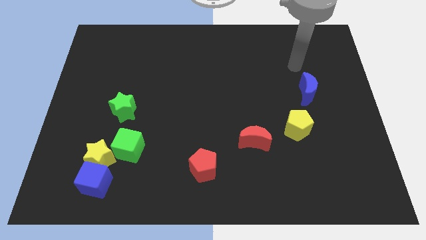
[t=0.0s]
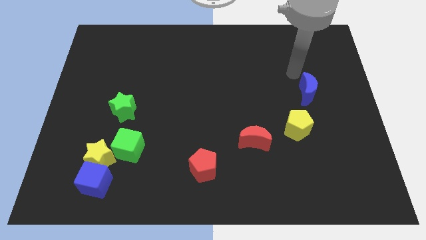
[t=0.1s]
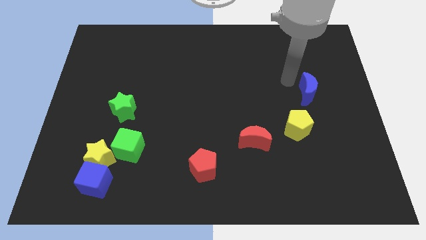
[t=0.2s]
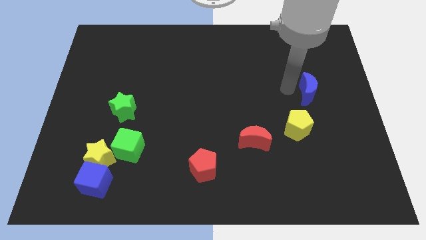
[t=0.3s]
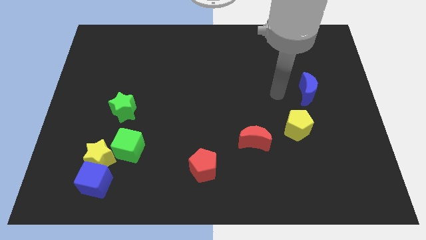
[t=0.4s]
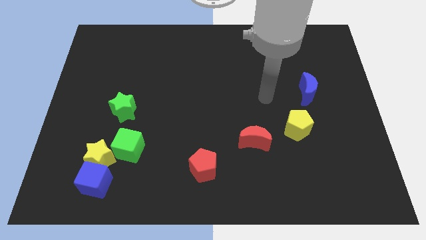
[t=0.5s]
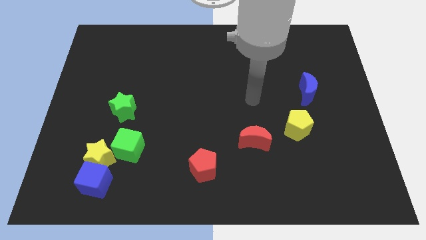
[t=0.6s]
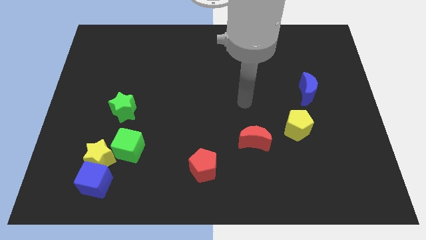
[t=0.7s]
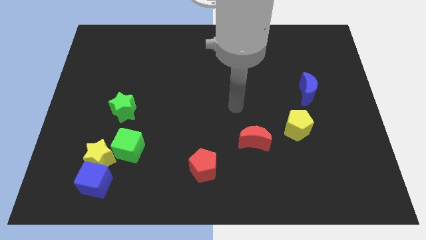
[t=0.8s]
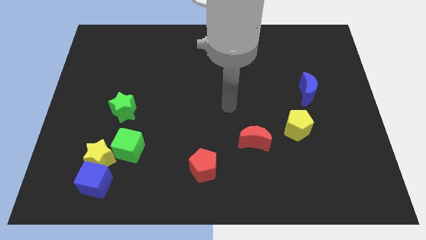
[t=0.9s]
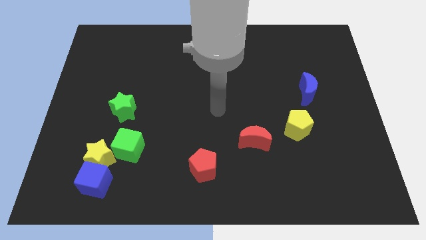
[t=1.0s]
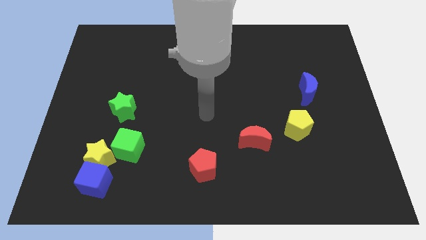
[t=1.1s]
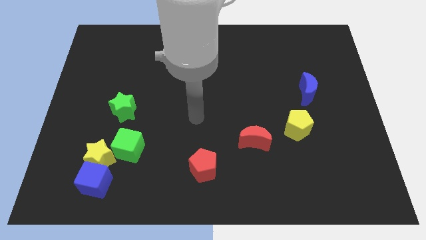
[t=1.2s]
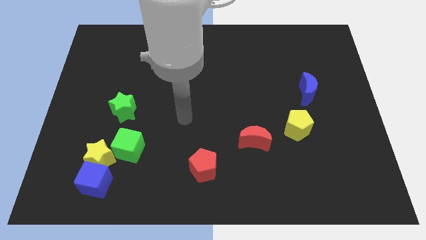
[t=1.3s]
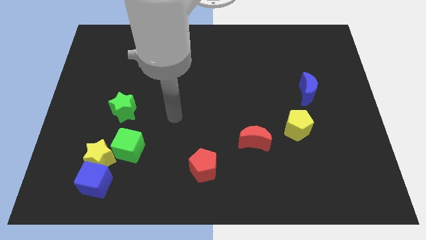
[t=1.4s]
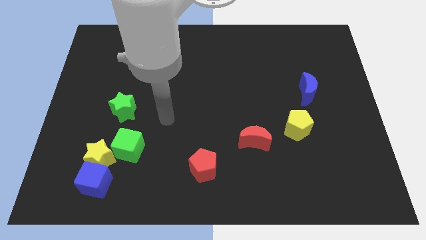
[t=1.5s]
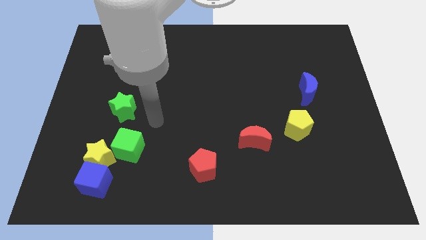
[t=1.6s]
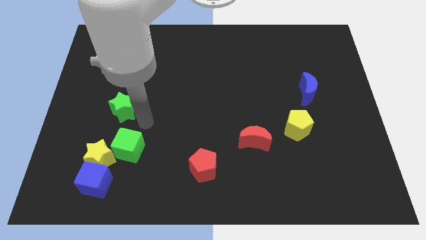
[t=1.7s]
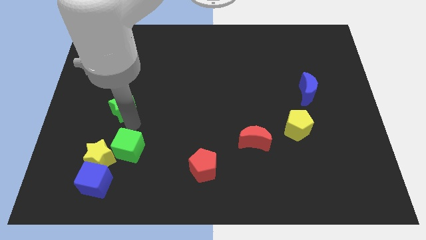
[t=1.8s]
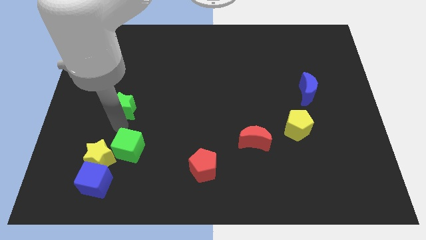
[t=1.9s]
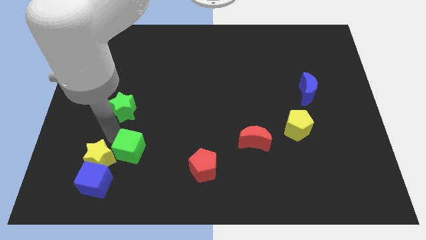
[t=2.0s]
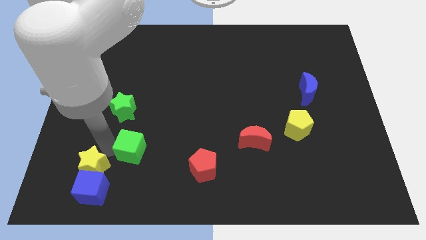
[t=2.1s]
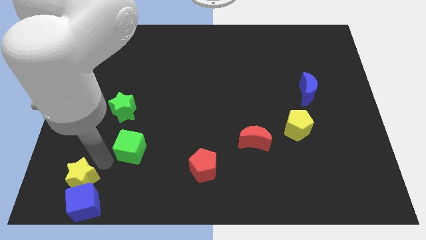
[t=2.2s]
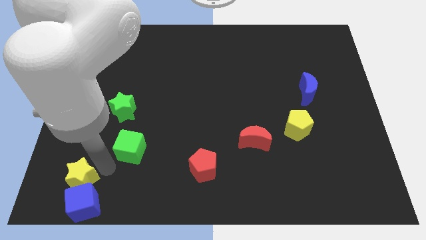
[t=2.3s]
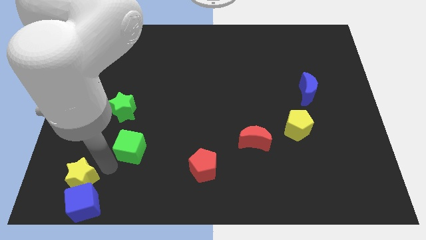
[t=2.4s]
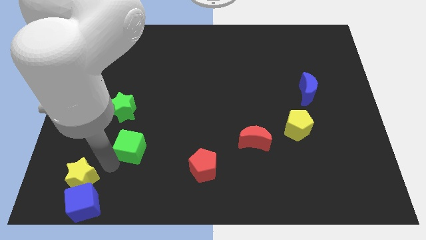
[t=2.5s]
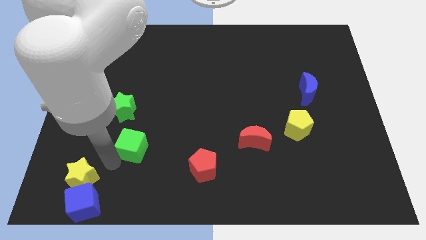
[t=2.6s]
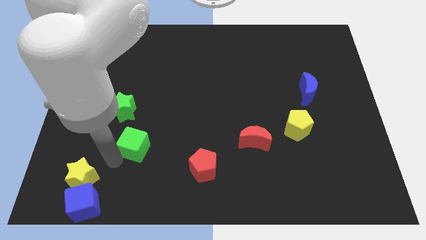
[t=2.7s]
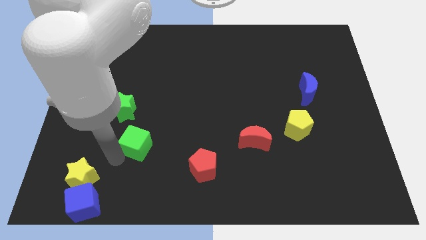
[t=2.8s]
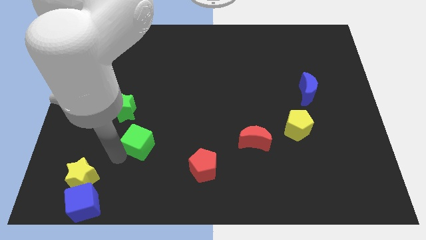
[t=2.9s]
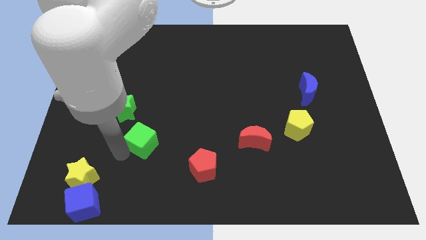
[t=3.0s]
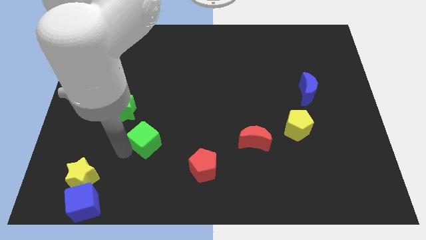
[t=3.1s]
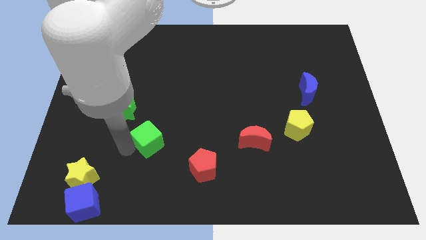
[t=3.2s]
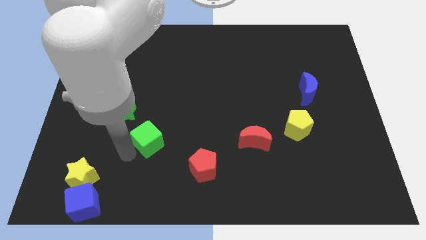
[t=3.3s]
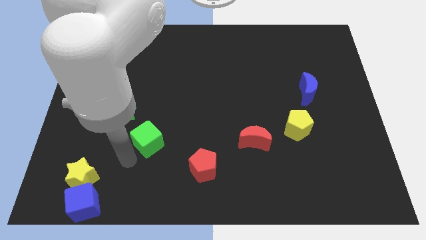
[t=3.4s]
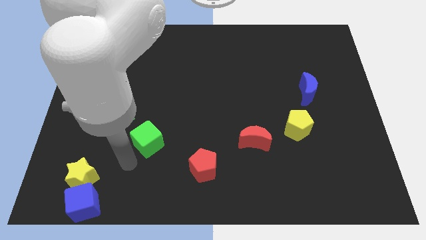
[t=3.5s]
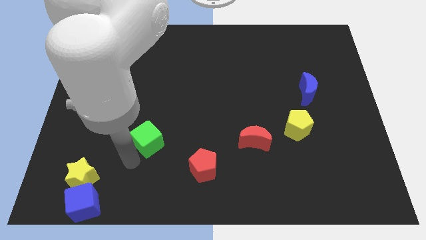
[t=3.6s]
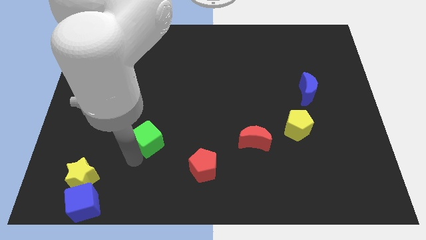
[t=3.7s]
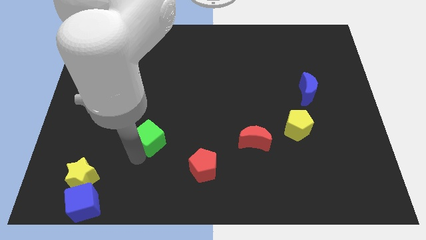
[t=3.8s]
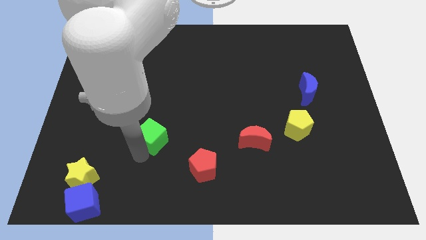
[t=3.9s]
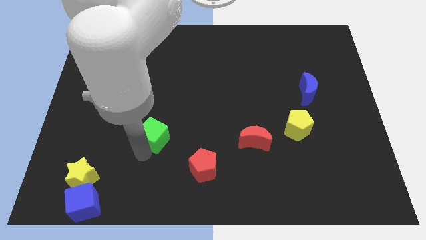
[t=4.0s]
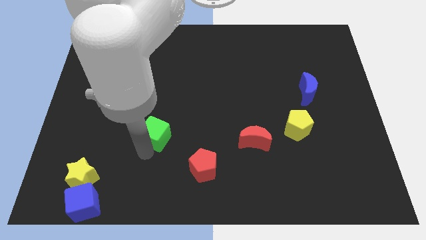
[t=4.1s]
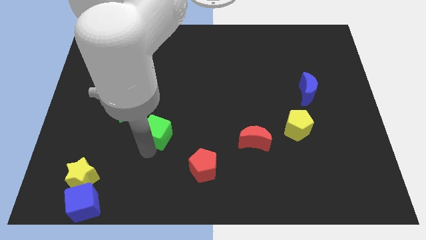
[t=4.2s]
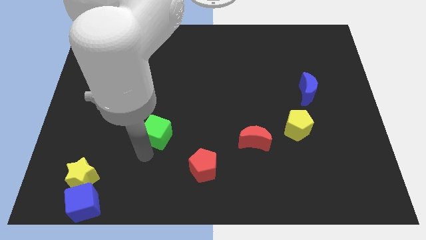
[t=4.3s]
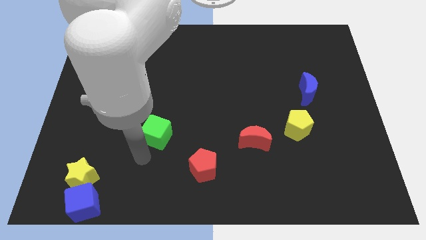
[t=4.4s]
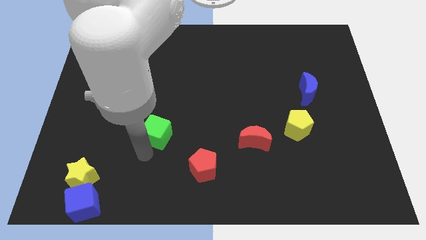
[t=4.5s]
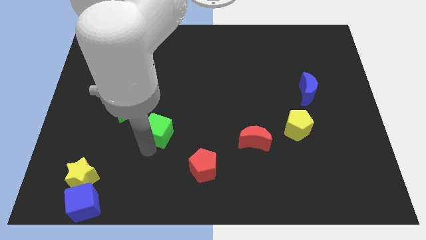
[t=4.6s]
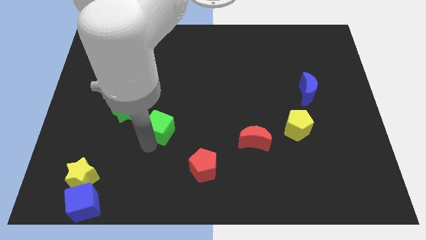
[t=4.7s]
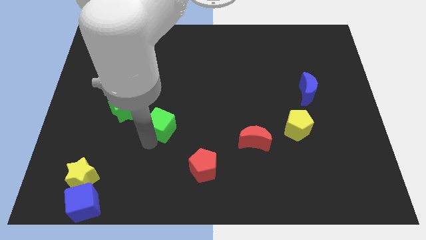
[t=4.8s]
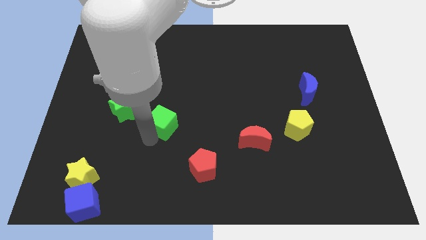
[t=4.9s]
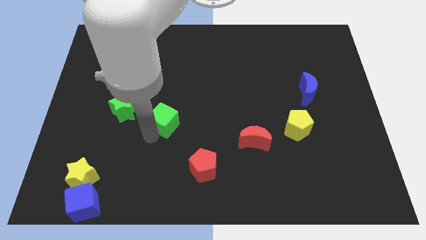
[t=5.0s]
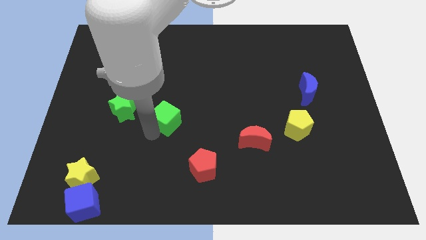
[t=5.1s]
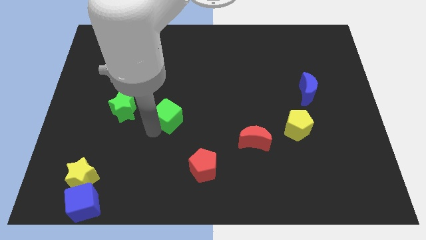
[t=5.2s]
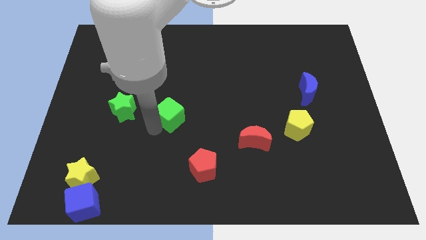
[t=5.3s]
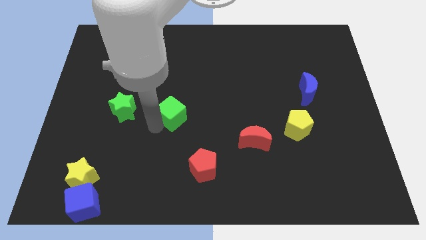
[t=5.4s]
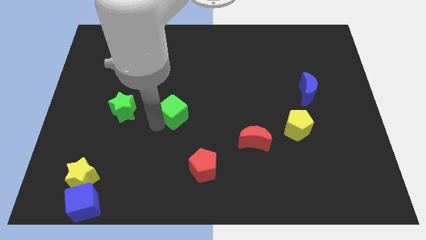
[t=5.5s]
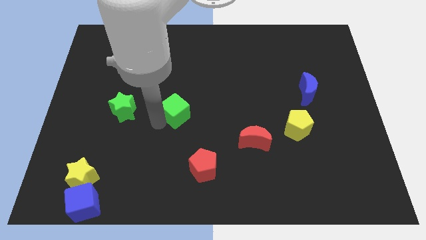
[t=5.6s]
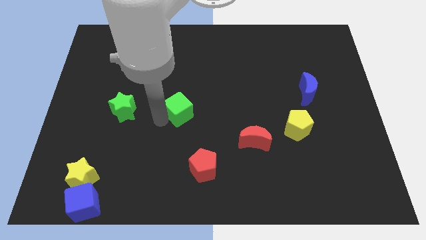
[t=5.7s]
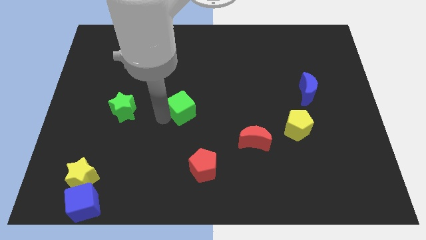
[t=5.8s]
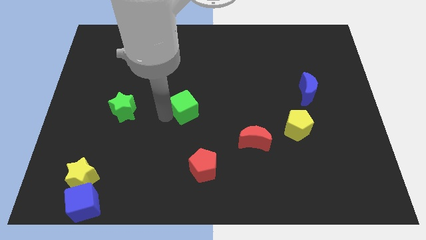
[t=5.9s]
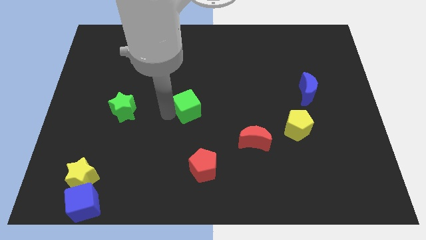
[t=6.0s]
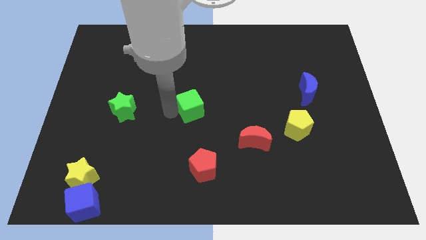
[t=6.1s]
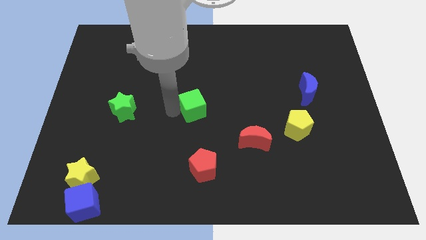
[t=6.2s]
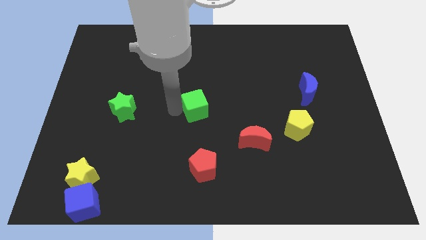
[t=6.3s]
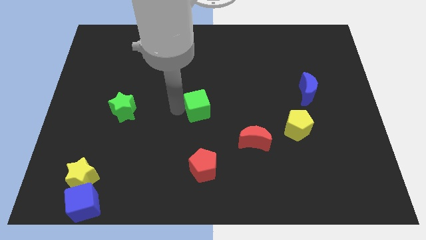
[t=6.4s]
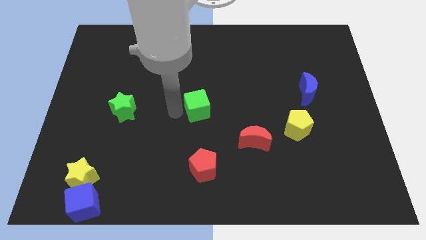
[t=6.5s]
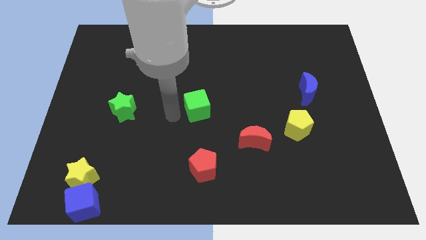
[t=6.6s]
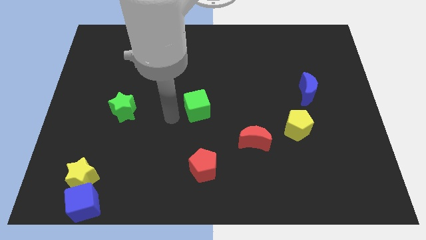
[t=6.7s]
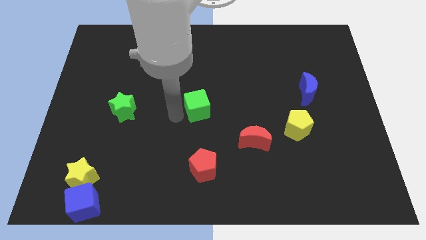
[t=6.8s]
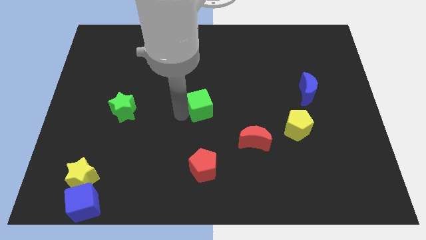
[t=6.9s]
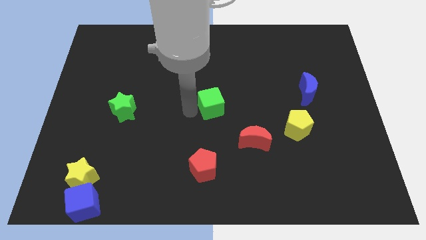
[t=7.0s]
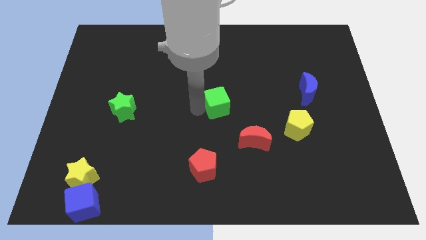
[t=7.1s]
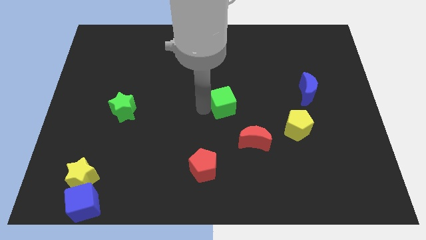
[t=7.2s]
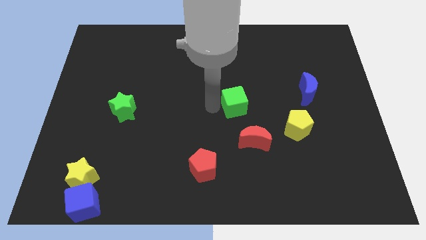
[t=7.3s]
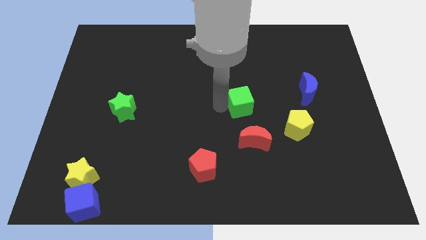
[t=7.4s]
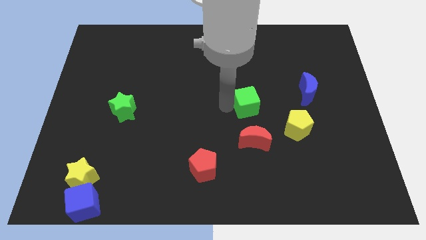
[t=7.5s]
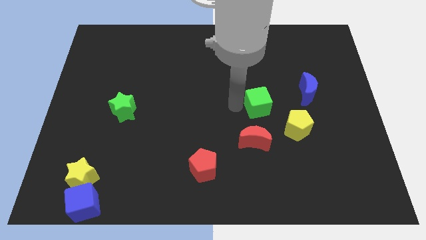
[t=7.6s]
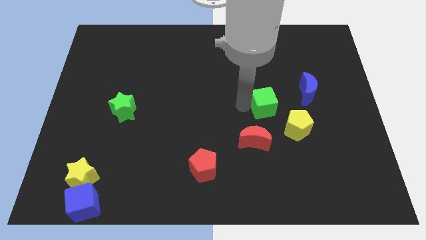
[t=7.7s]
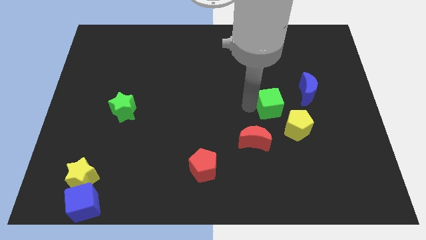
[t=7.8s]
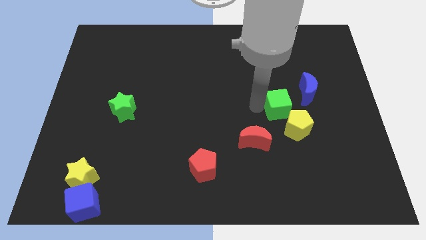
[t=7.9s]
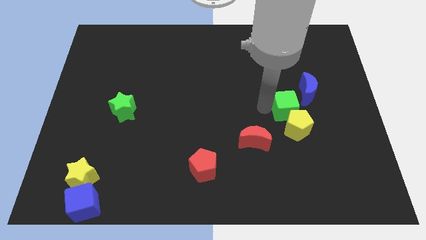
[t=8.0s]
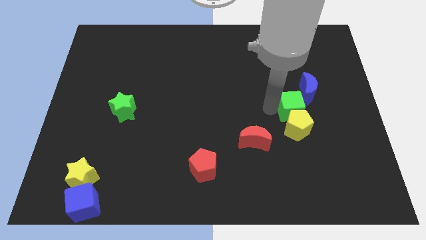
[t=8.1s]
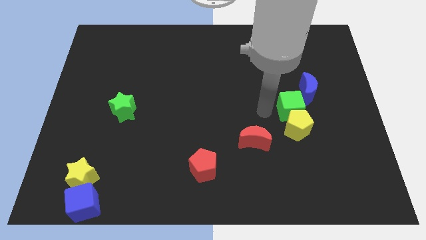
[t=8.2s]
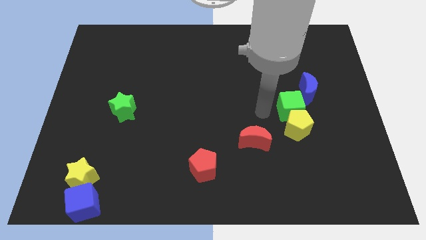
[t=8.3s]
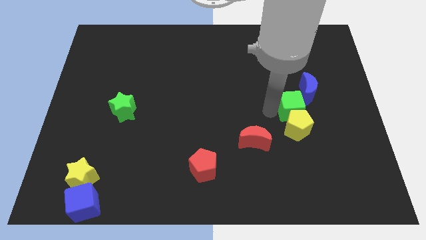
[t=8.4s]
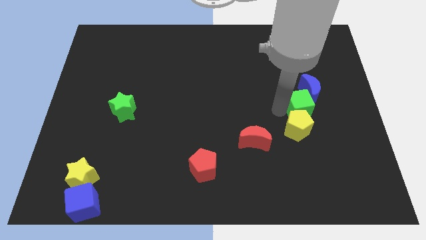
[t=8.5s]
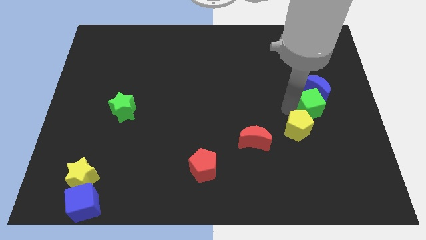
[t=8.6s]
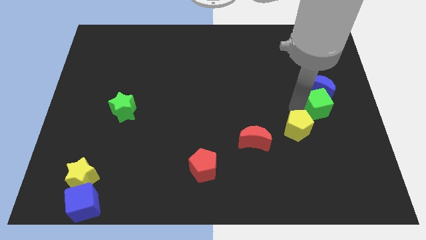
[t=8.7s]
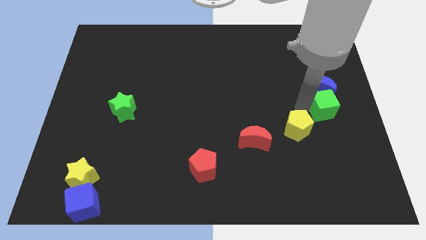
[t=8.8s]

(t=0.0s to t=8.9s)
slide the green cube to the right side of the board
